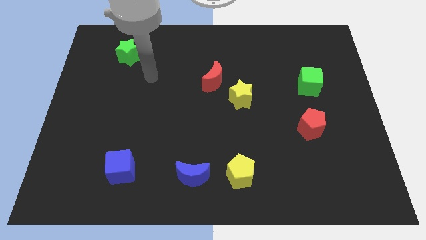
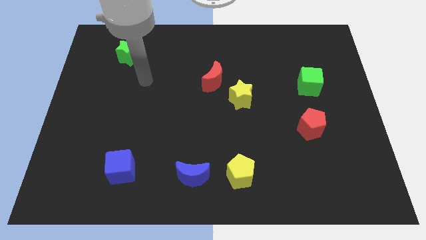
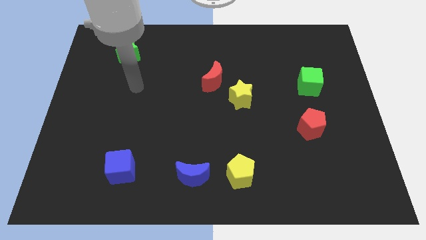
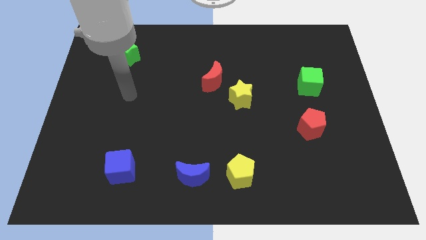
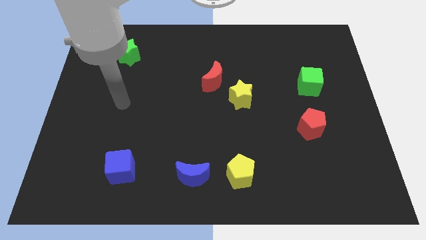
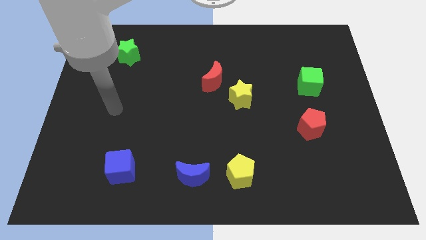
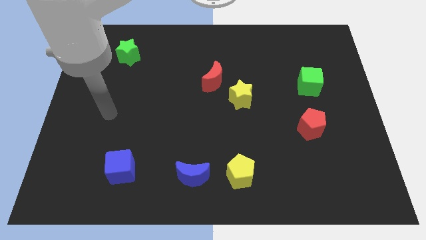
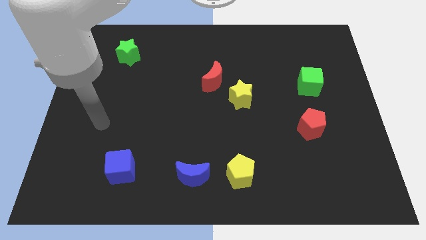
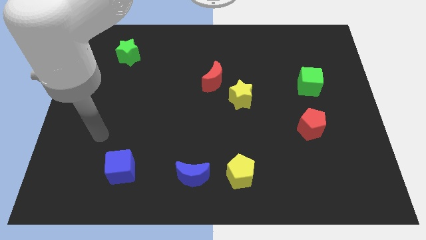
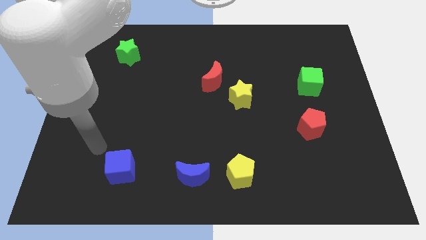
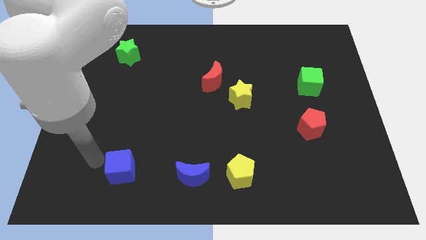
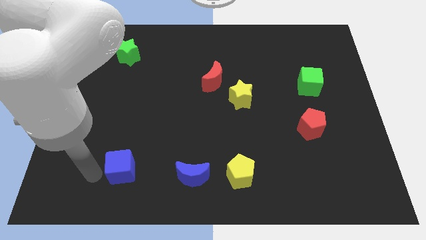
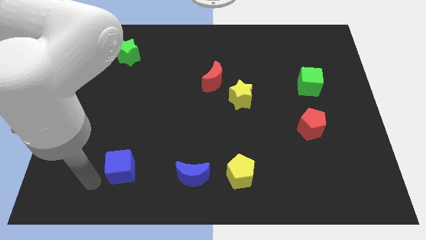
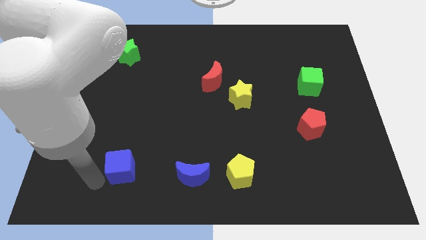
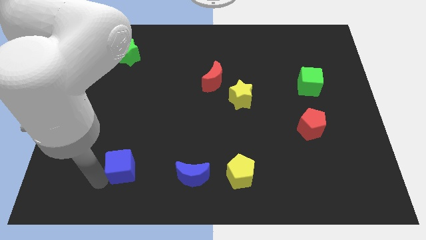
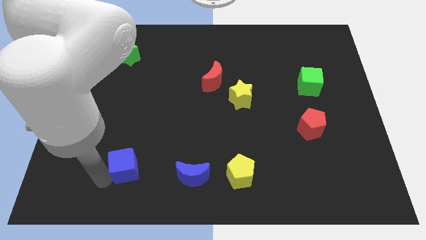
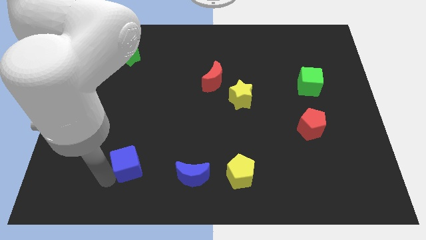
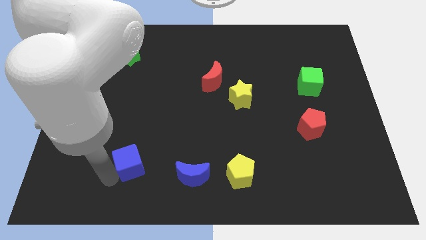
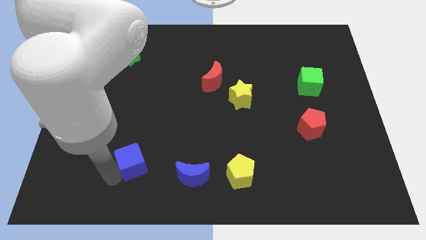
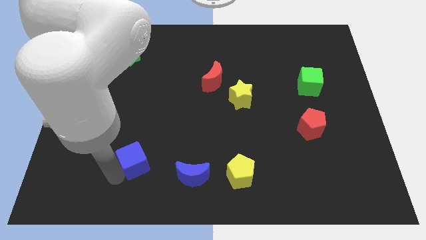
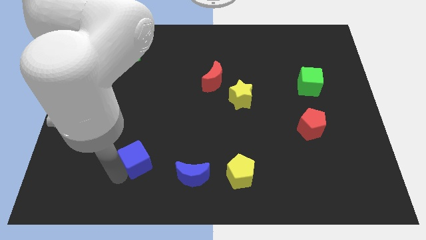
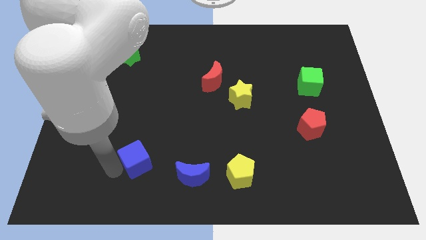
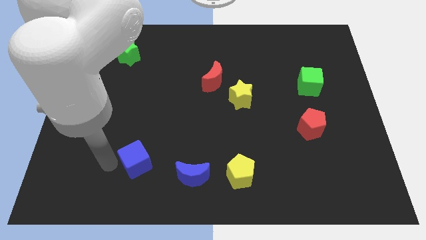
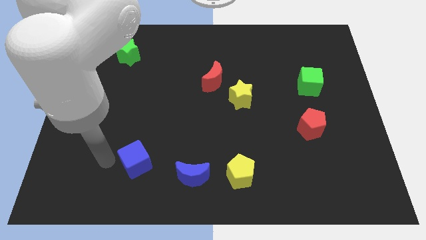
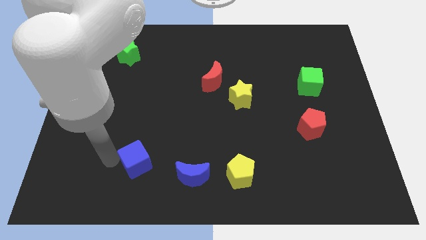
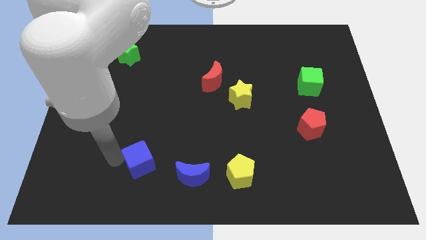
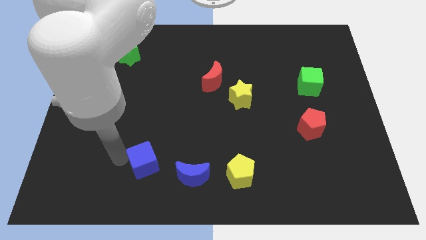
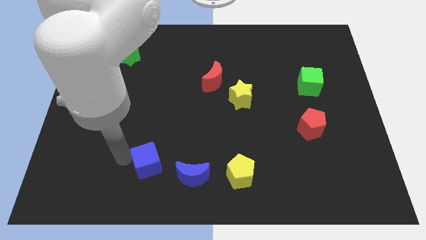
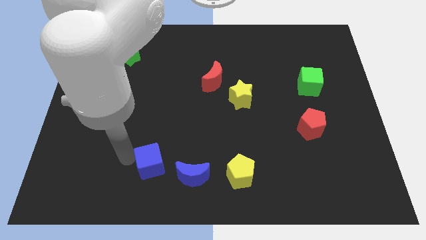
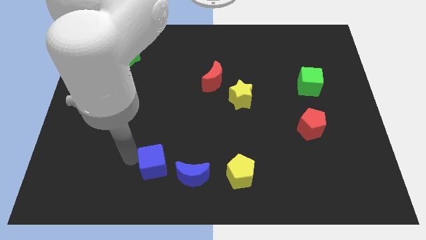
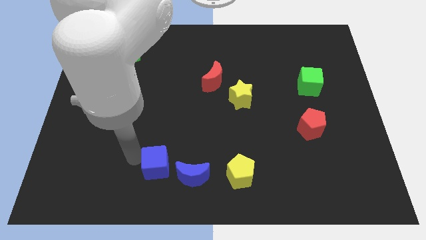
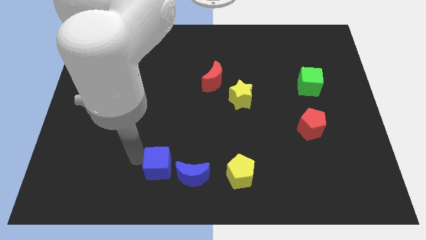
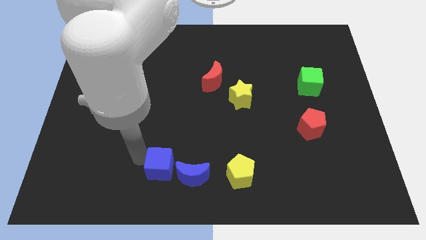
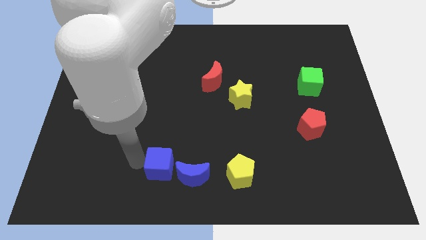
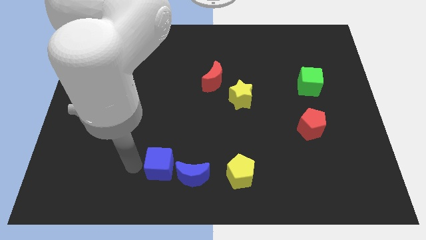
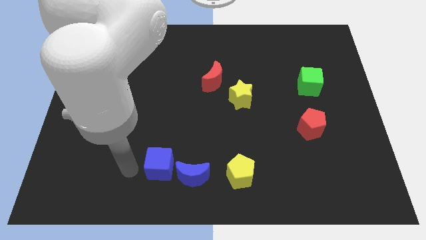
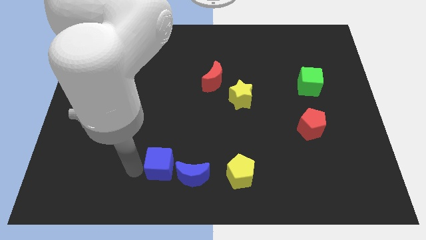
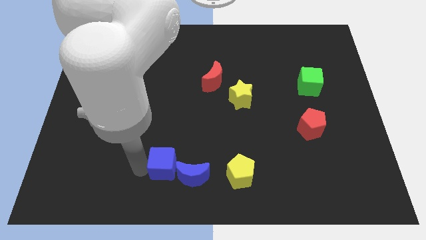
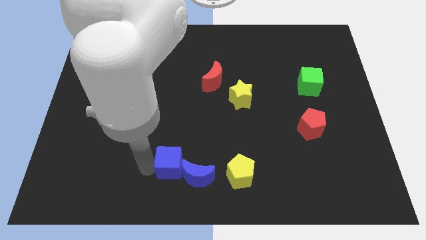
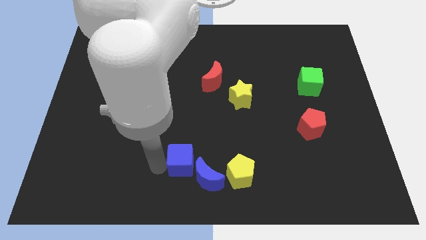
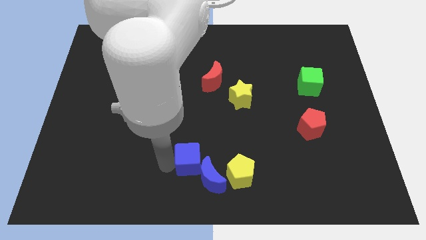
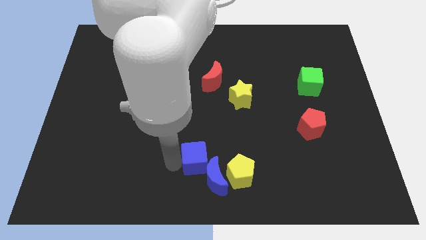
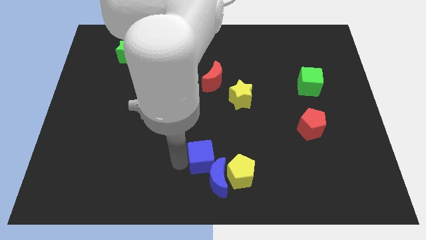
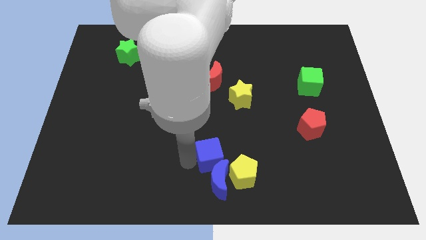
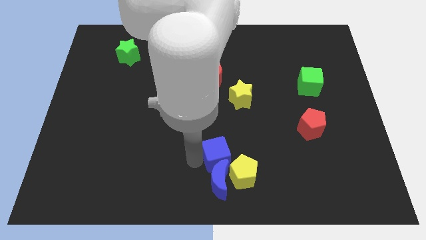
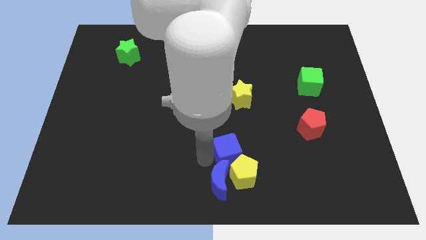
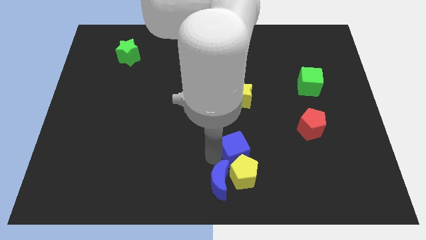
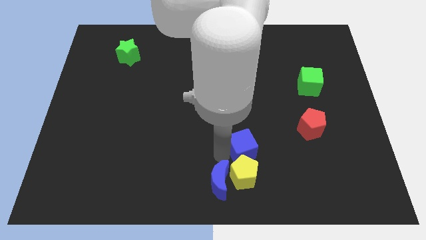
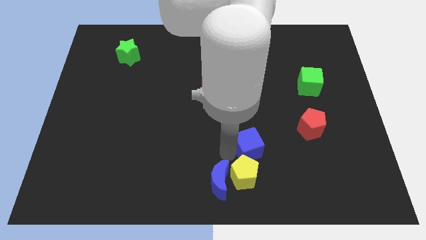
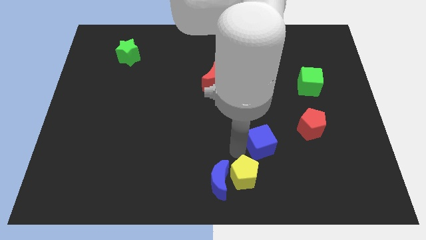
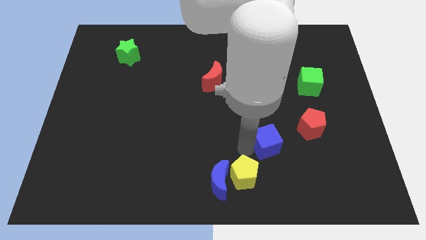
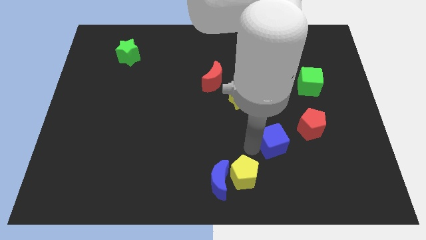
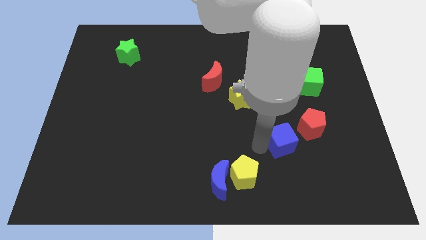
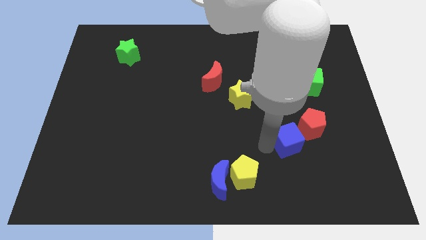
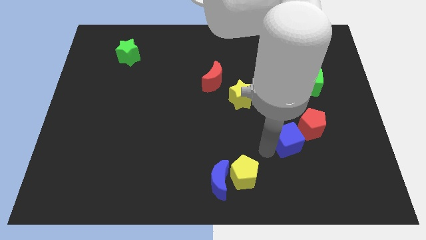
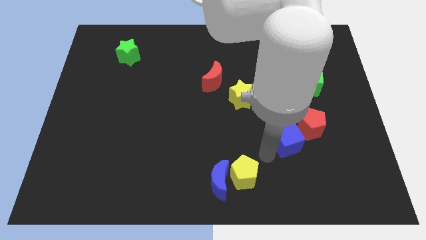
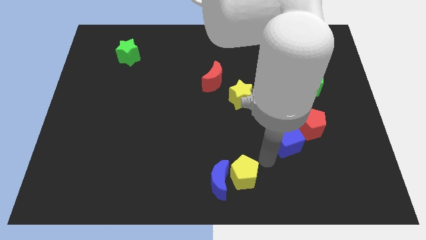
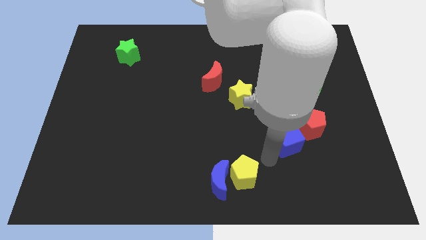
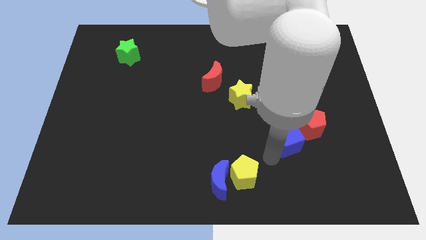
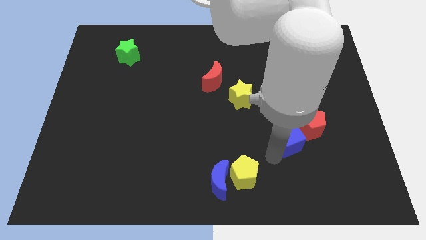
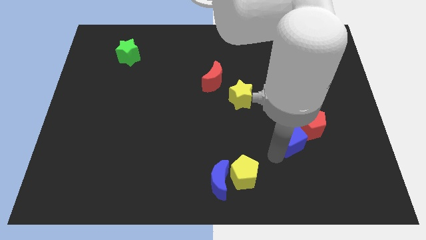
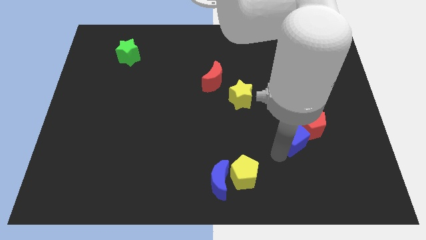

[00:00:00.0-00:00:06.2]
put the blue cube next to the red pentagon

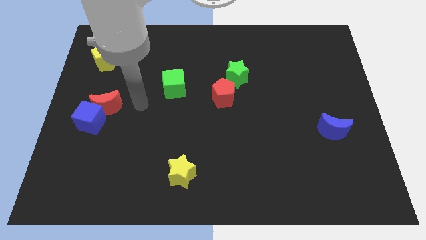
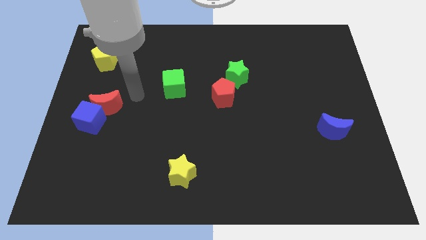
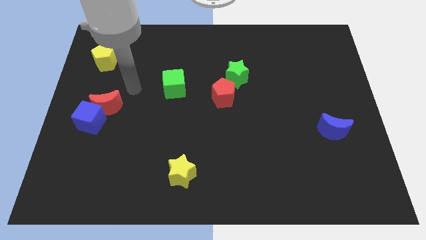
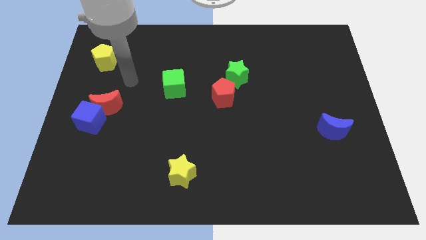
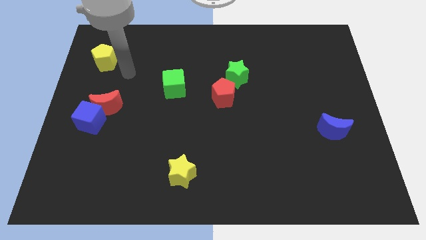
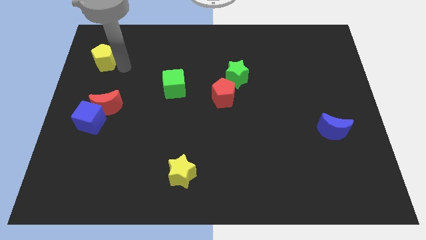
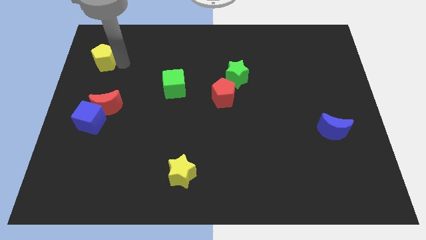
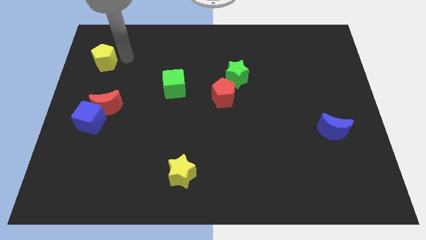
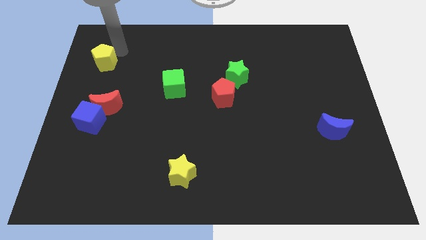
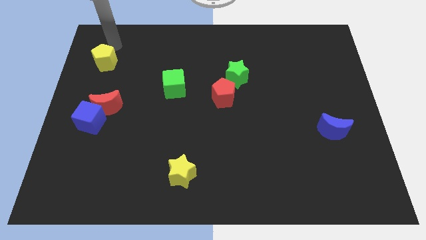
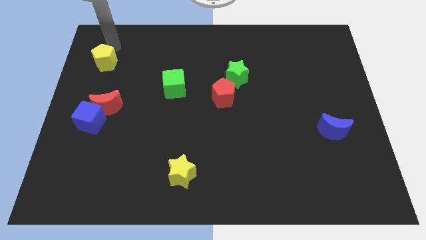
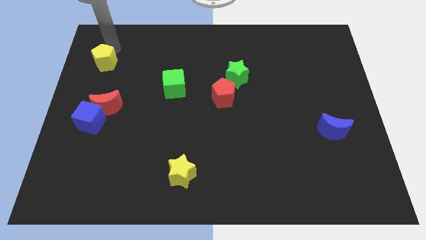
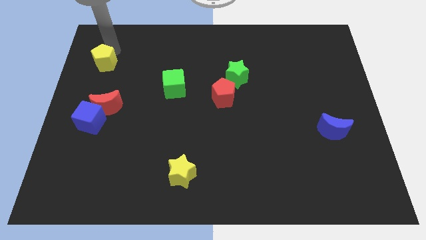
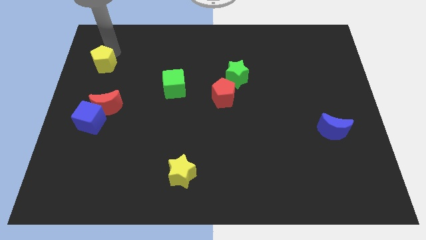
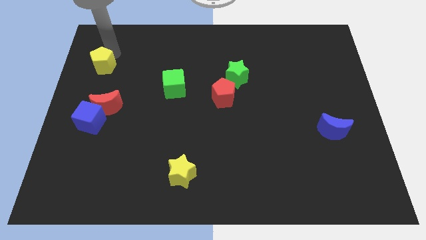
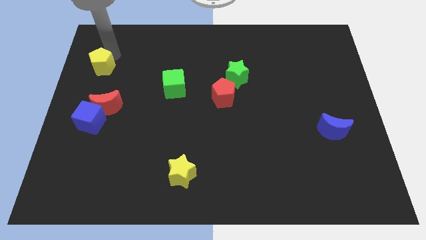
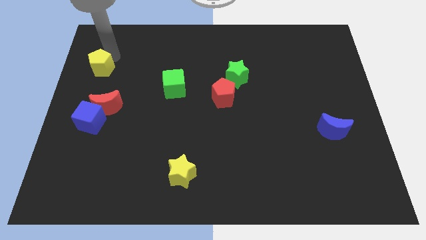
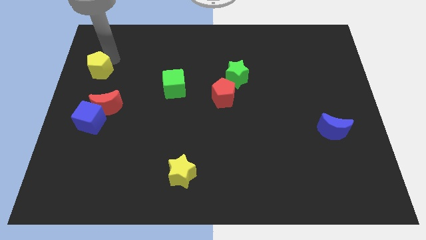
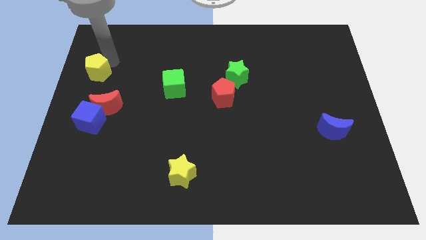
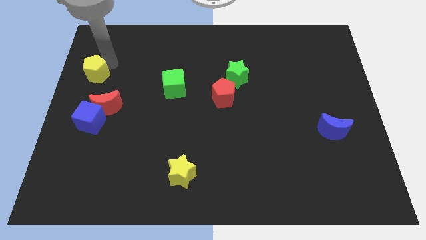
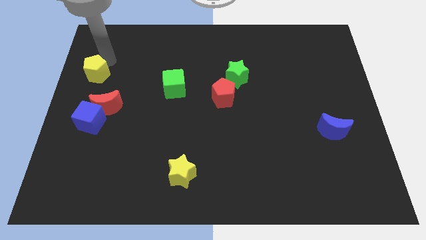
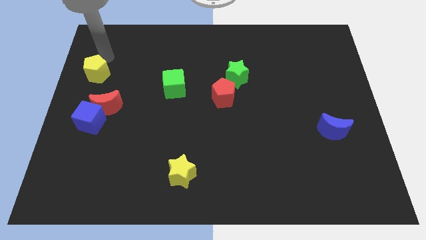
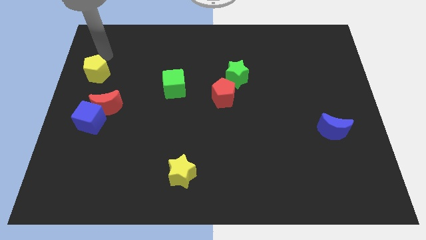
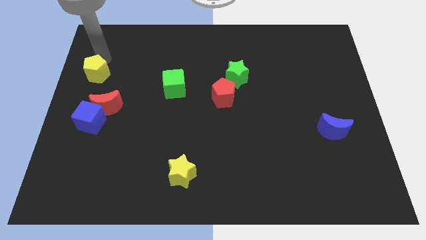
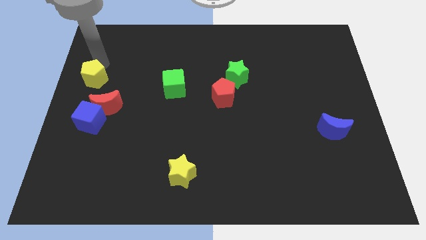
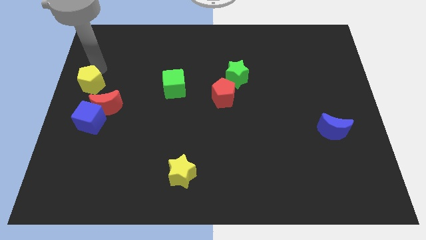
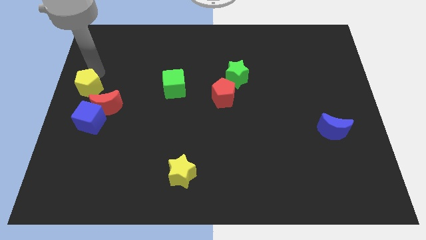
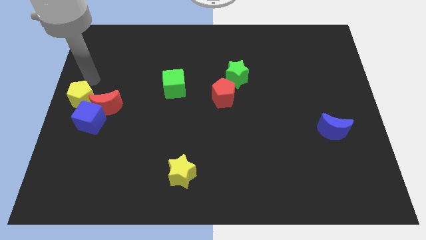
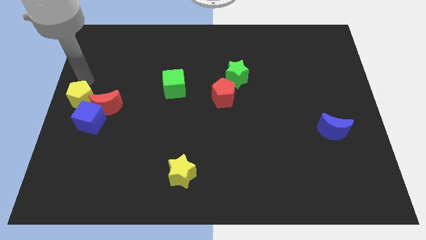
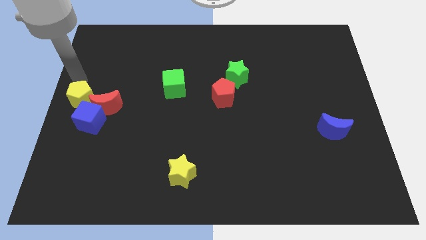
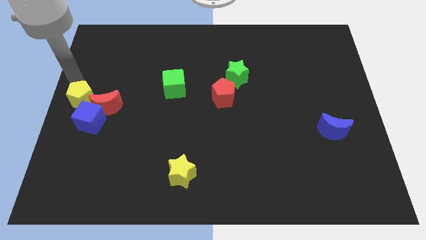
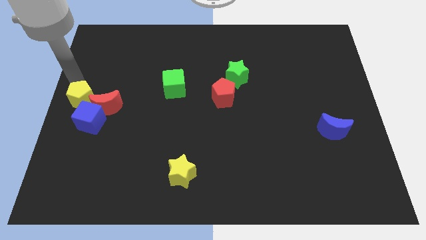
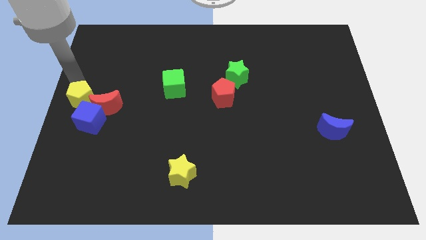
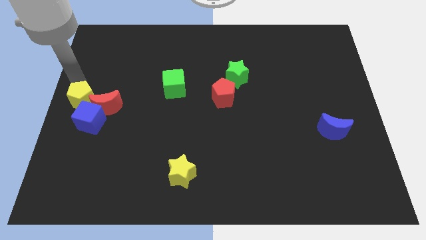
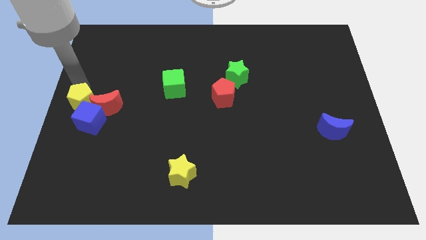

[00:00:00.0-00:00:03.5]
slide the yellow pentagon next to the blue cube
